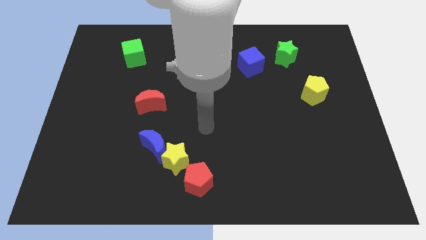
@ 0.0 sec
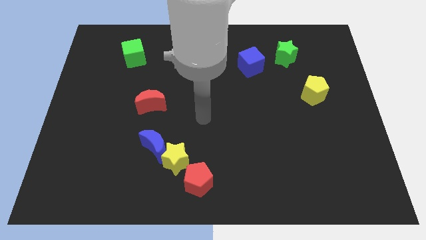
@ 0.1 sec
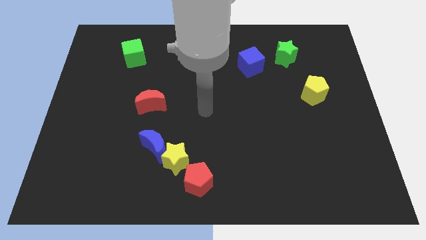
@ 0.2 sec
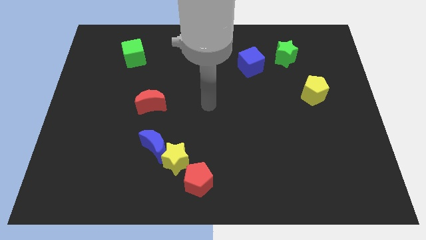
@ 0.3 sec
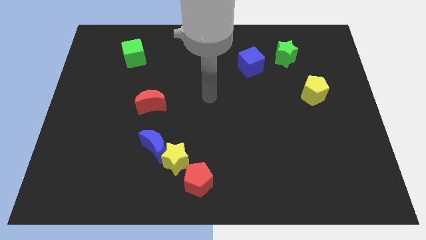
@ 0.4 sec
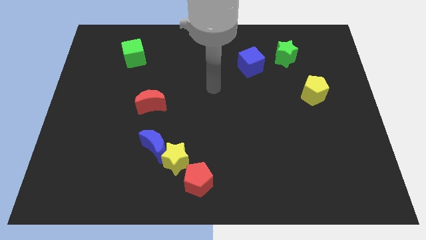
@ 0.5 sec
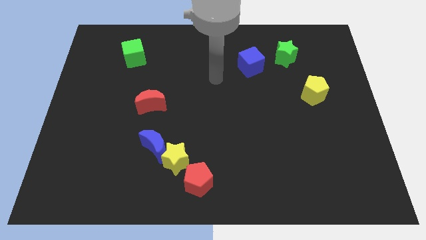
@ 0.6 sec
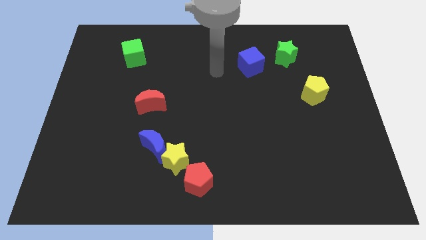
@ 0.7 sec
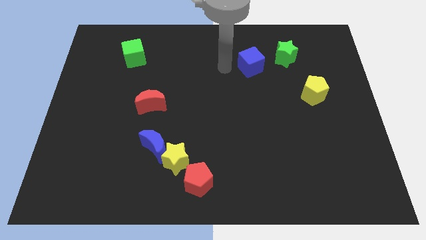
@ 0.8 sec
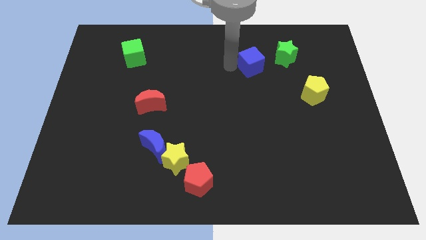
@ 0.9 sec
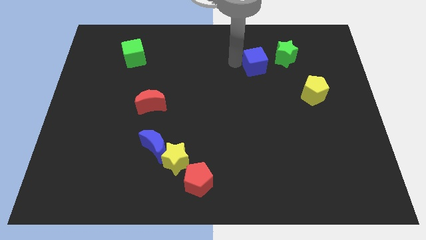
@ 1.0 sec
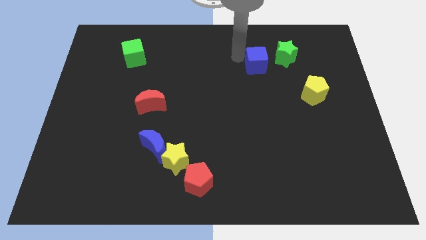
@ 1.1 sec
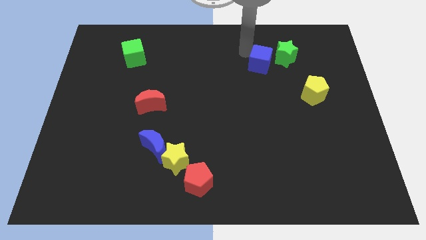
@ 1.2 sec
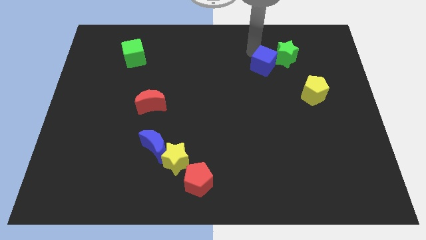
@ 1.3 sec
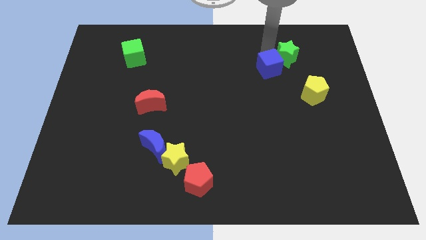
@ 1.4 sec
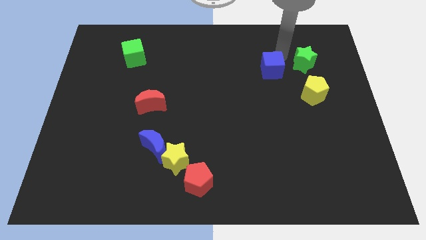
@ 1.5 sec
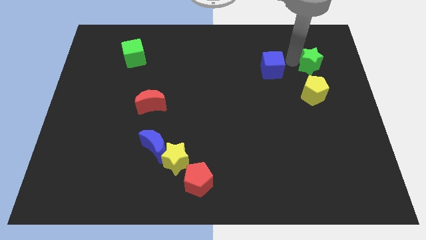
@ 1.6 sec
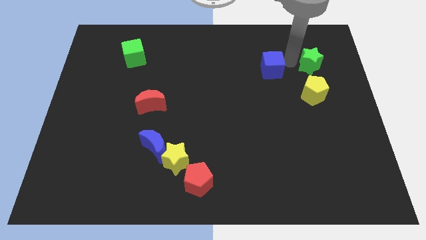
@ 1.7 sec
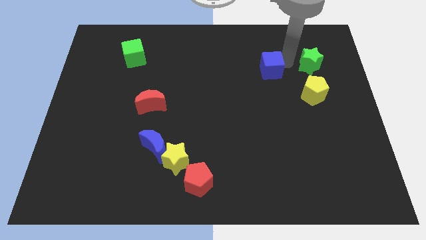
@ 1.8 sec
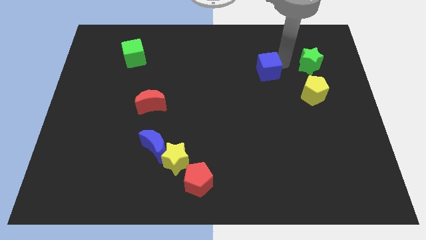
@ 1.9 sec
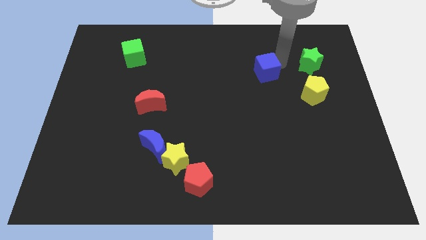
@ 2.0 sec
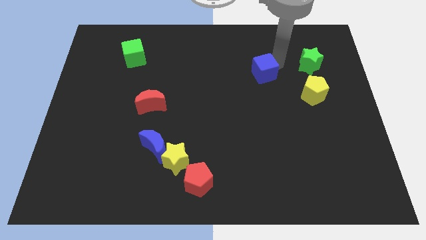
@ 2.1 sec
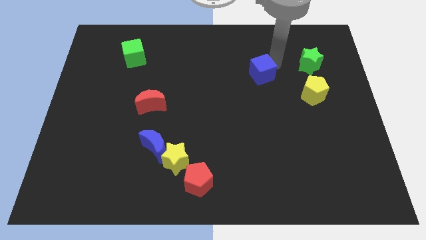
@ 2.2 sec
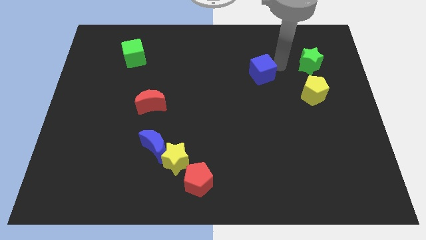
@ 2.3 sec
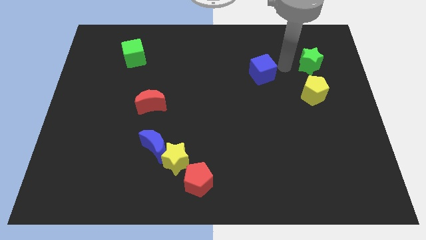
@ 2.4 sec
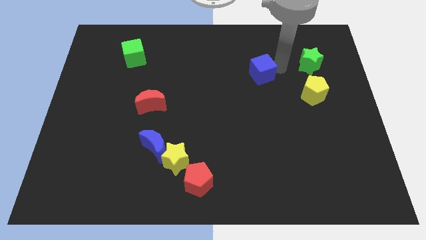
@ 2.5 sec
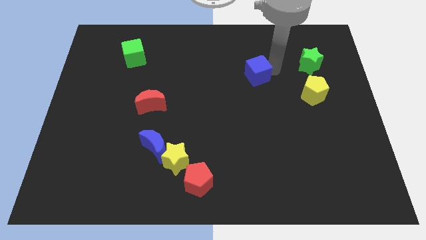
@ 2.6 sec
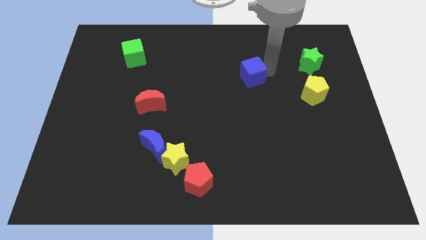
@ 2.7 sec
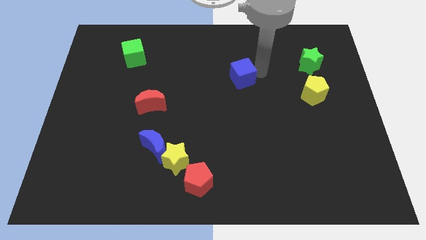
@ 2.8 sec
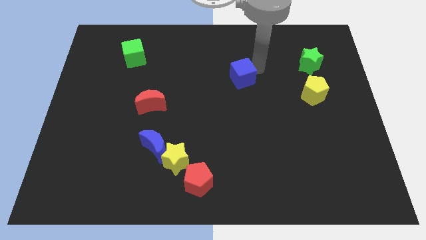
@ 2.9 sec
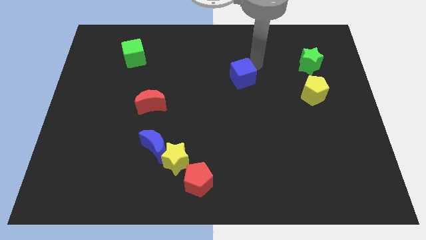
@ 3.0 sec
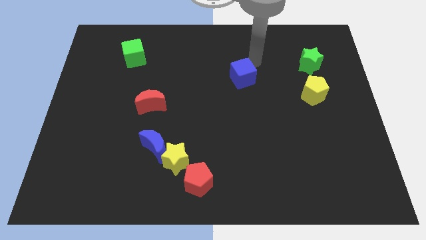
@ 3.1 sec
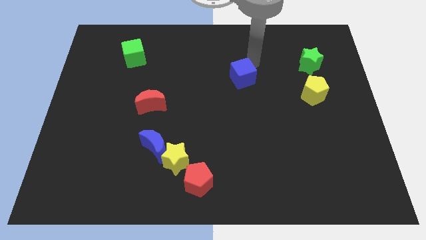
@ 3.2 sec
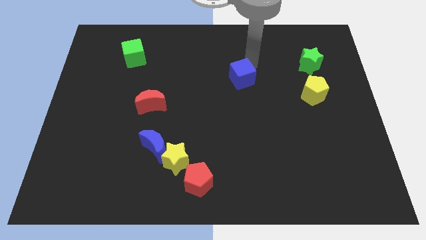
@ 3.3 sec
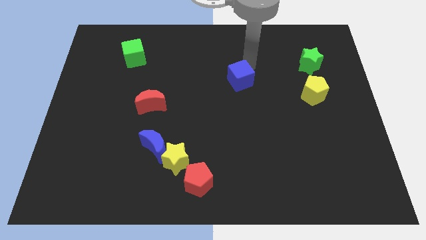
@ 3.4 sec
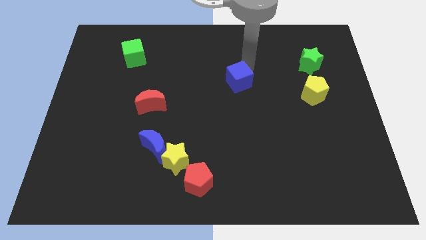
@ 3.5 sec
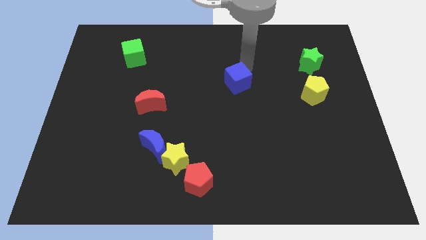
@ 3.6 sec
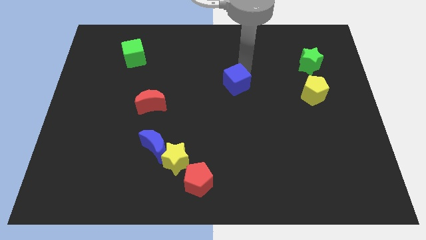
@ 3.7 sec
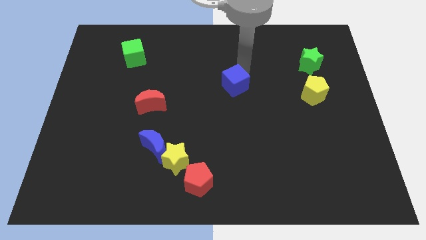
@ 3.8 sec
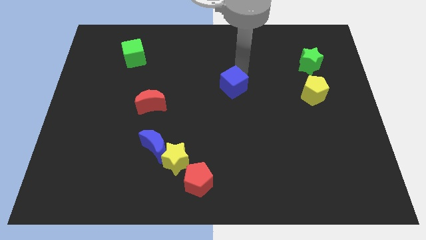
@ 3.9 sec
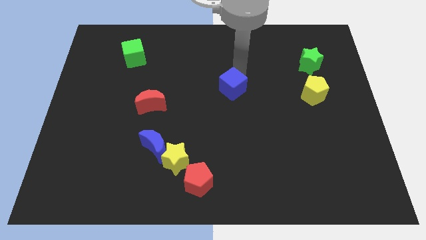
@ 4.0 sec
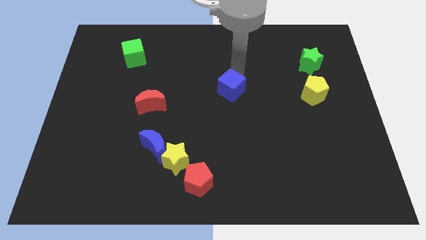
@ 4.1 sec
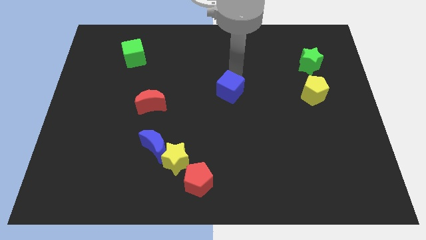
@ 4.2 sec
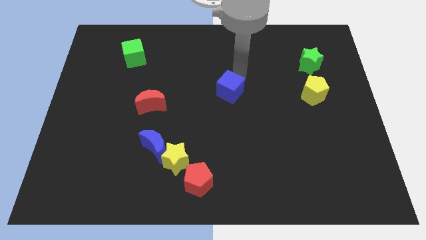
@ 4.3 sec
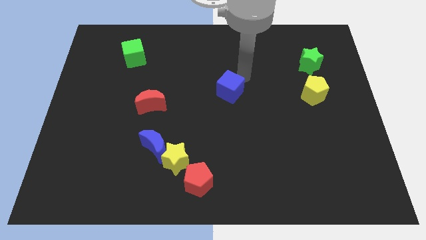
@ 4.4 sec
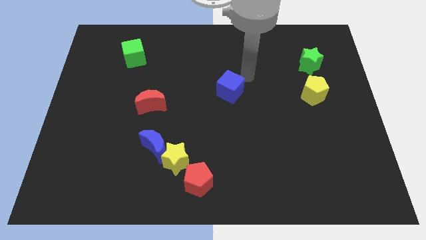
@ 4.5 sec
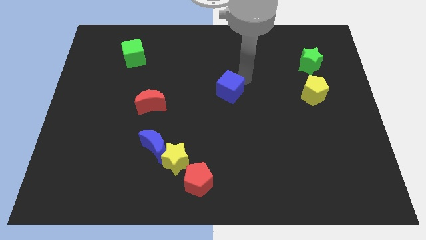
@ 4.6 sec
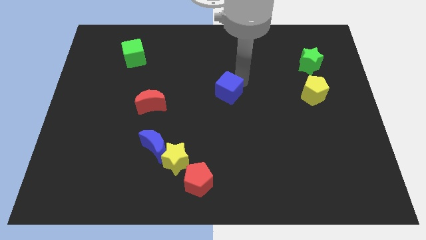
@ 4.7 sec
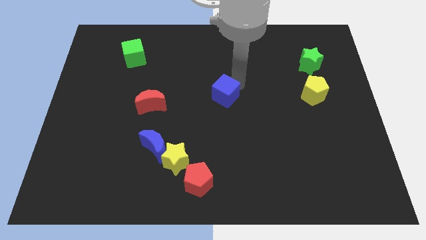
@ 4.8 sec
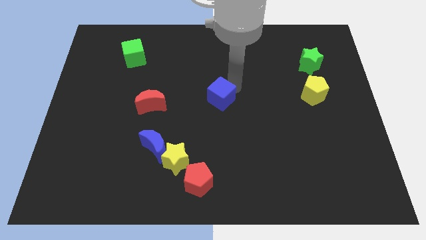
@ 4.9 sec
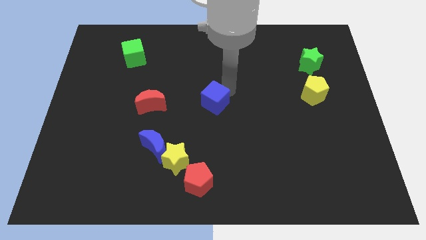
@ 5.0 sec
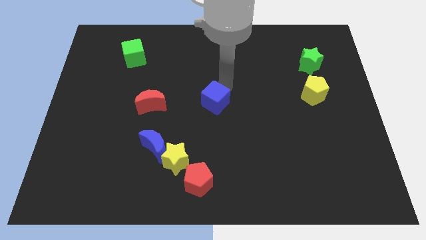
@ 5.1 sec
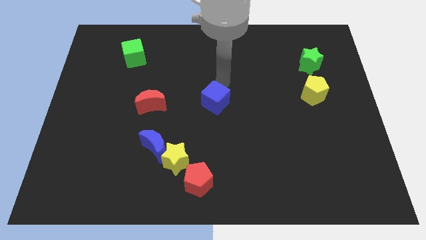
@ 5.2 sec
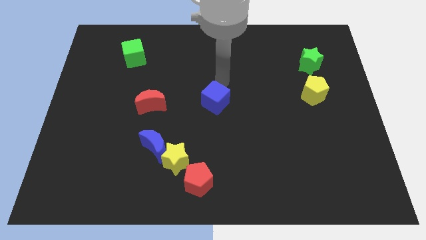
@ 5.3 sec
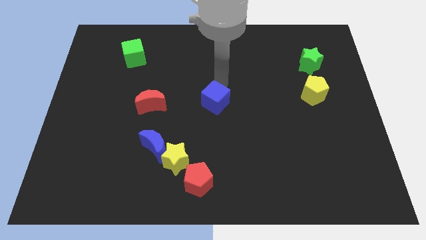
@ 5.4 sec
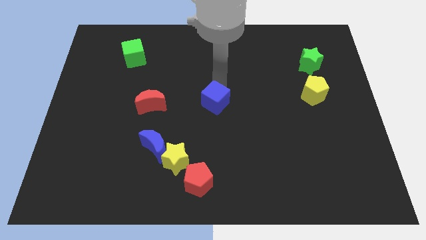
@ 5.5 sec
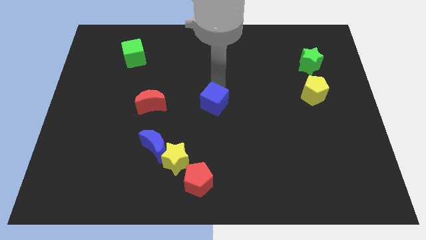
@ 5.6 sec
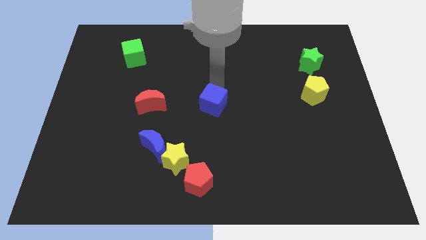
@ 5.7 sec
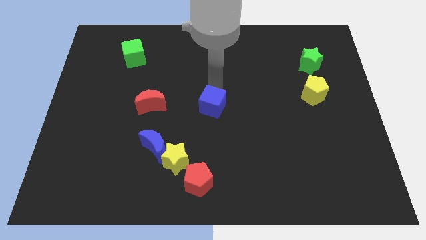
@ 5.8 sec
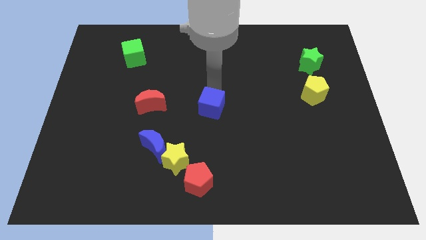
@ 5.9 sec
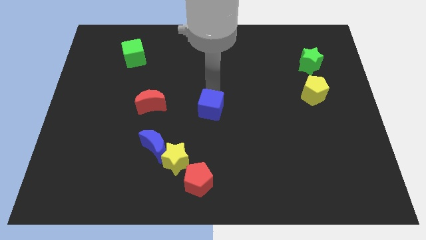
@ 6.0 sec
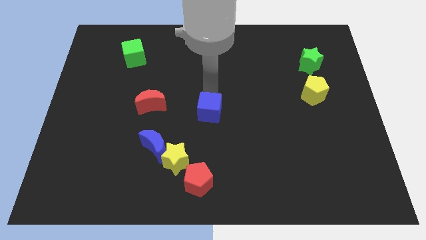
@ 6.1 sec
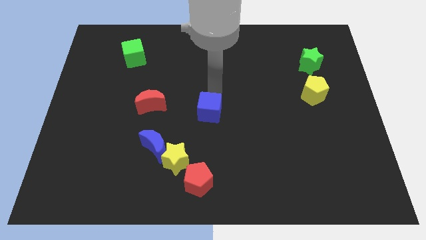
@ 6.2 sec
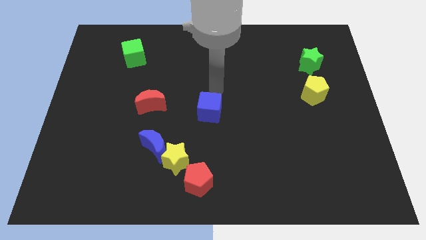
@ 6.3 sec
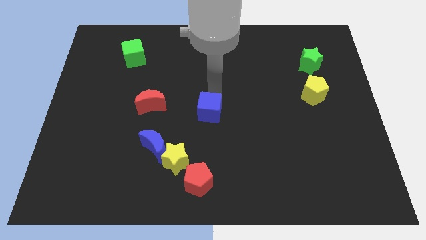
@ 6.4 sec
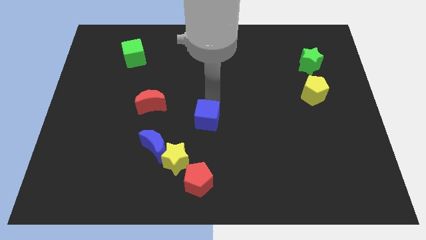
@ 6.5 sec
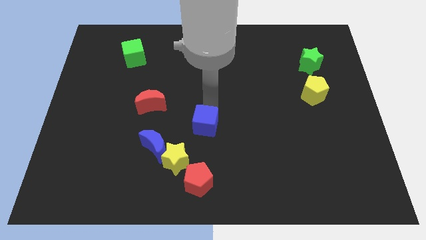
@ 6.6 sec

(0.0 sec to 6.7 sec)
push the blue cube to the top right side of the yellow star
